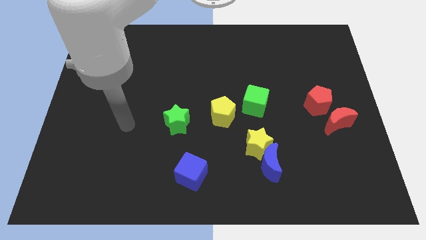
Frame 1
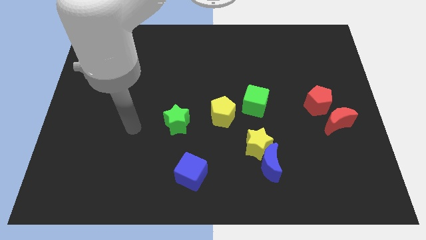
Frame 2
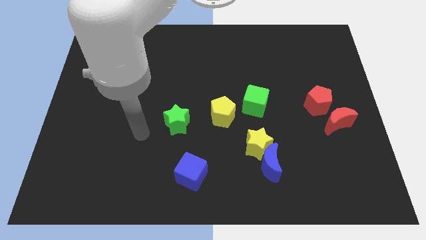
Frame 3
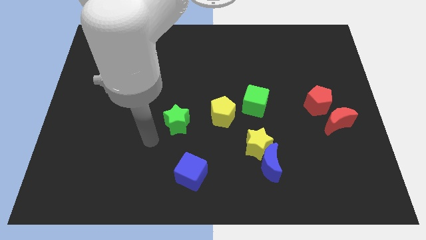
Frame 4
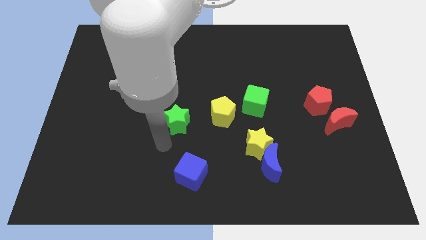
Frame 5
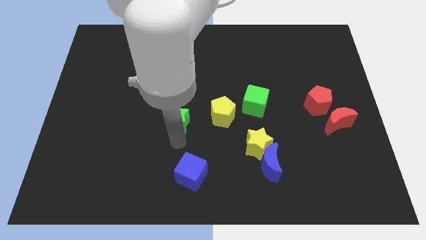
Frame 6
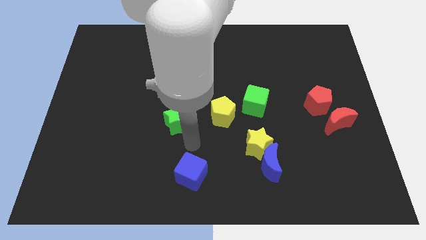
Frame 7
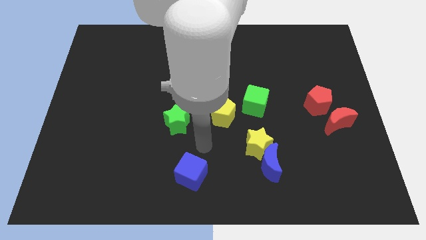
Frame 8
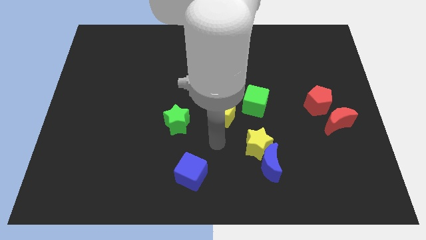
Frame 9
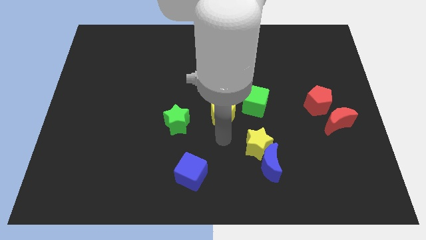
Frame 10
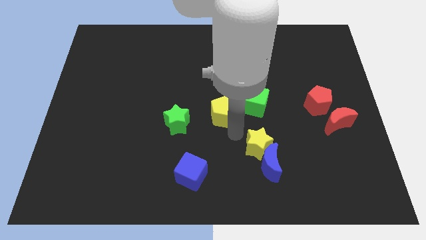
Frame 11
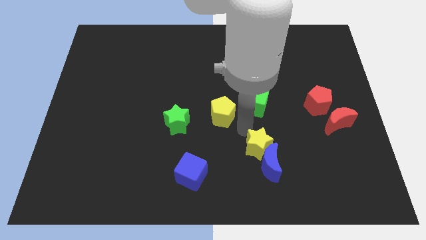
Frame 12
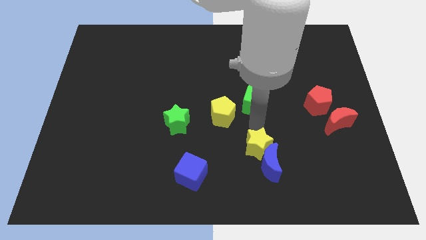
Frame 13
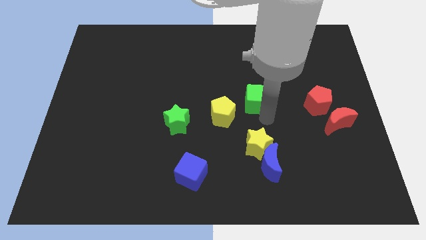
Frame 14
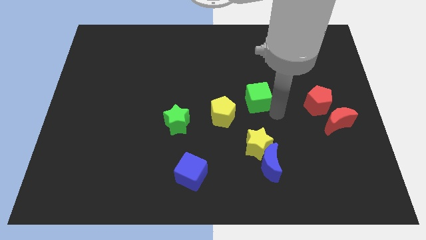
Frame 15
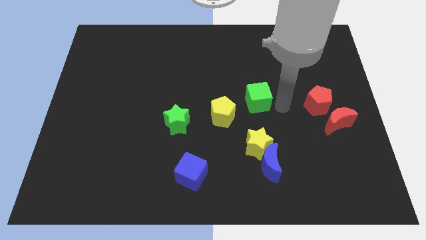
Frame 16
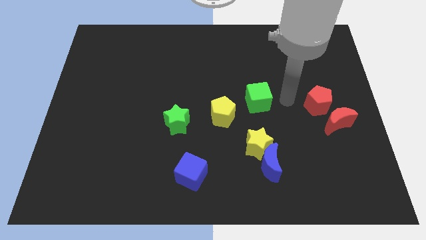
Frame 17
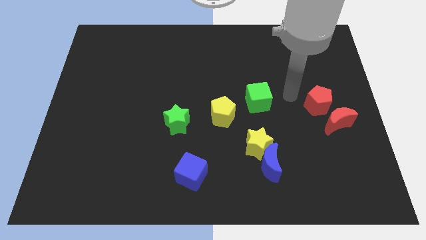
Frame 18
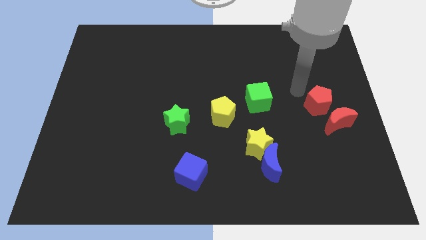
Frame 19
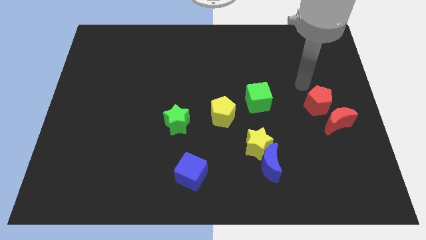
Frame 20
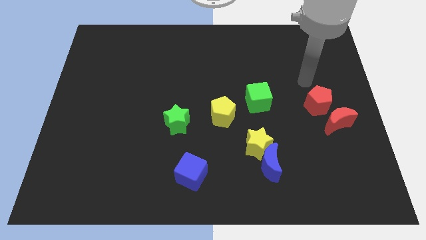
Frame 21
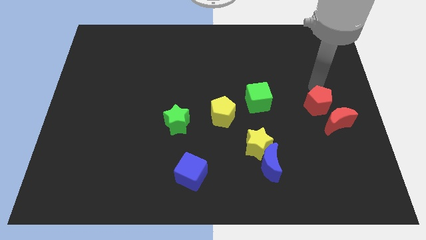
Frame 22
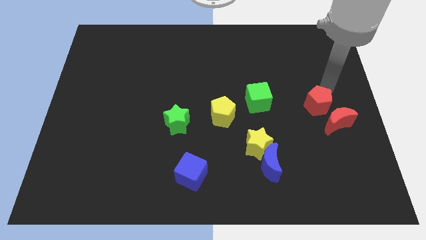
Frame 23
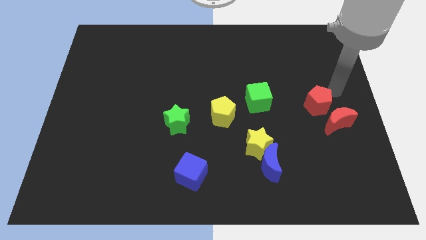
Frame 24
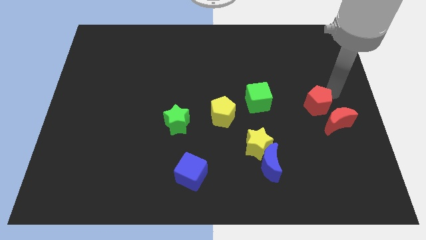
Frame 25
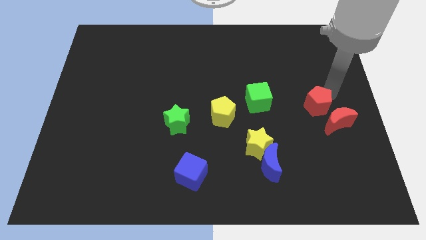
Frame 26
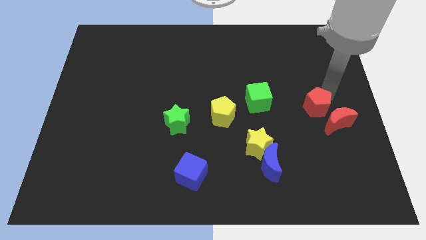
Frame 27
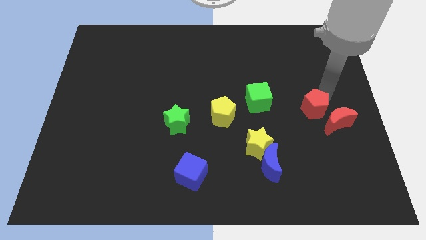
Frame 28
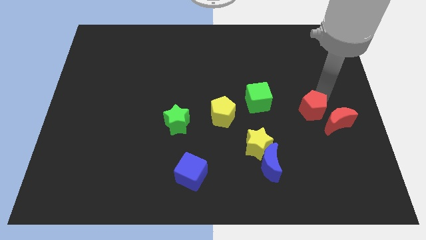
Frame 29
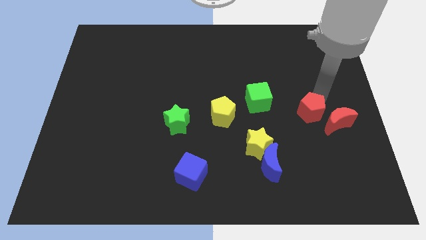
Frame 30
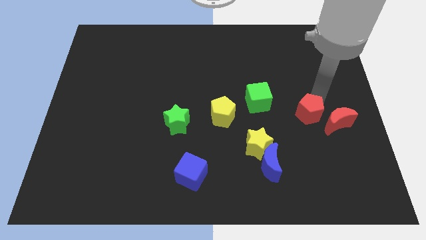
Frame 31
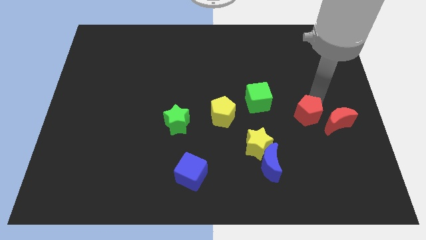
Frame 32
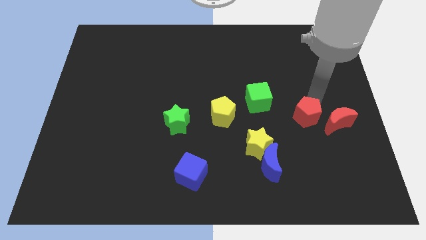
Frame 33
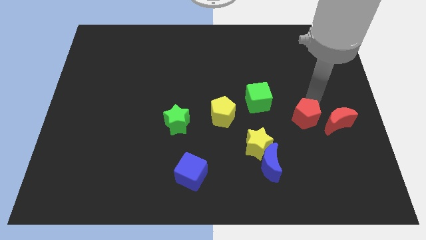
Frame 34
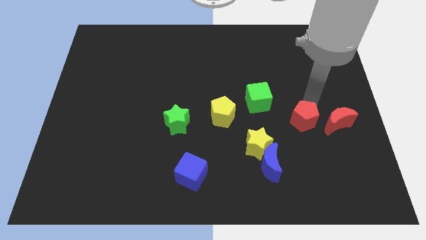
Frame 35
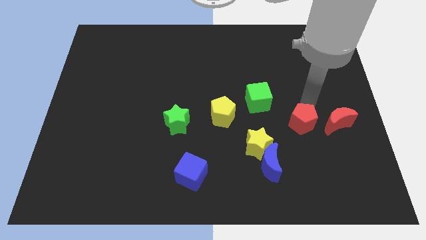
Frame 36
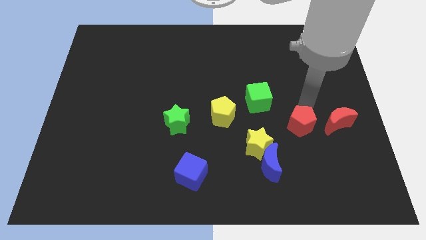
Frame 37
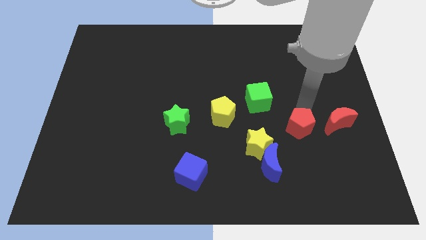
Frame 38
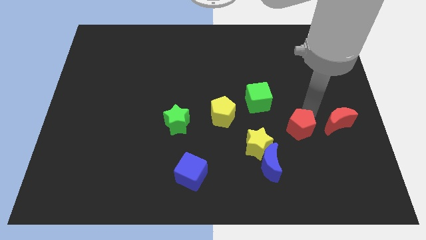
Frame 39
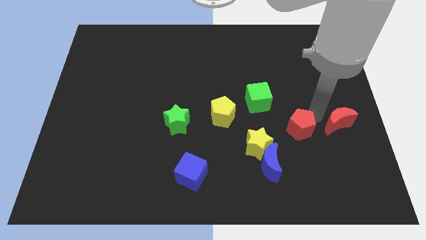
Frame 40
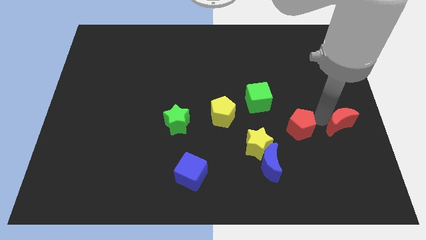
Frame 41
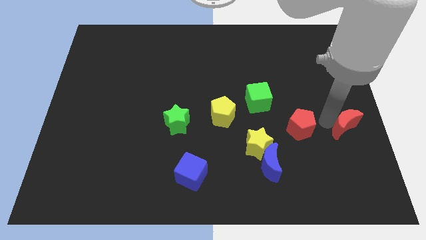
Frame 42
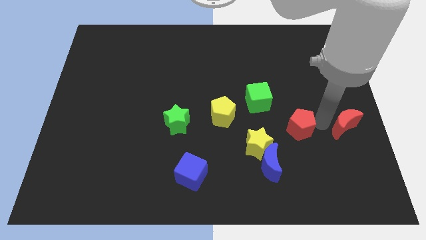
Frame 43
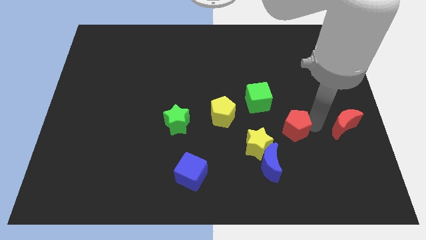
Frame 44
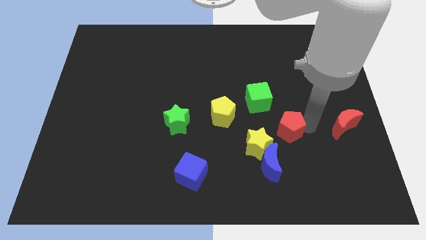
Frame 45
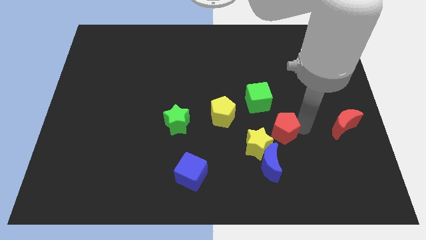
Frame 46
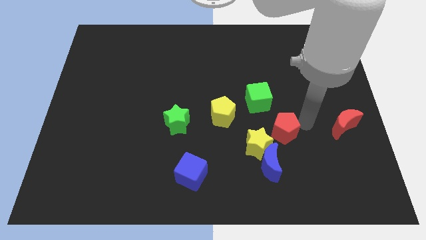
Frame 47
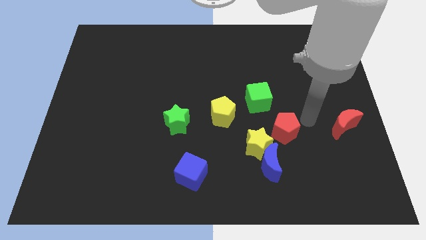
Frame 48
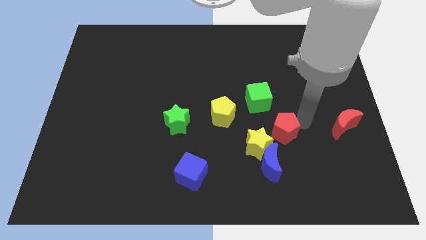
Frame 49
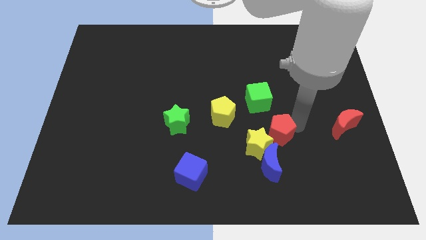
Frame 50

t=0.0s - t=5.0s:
slide the red pentagon towards the yellow star

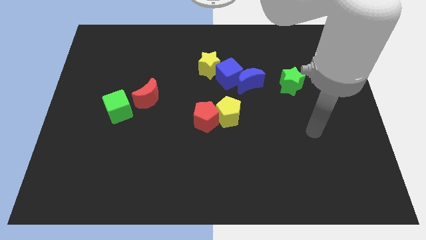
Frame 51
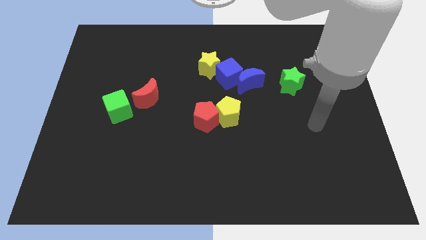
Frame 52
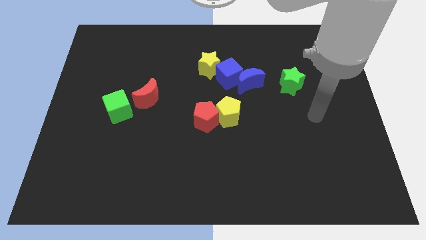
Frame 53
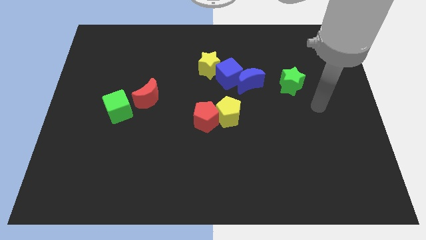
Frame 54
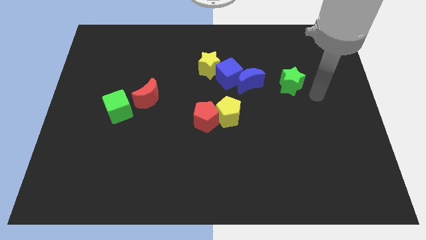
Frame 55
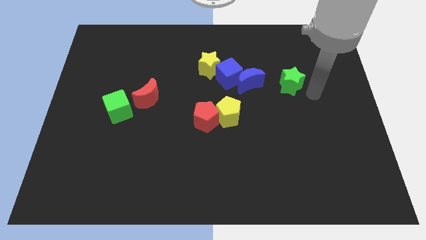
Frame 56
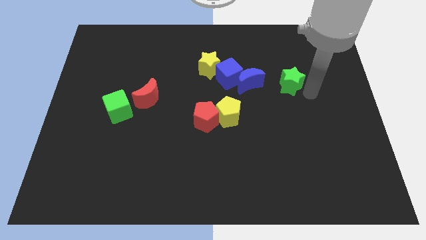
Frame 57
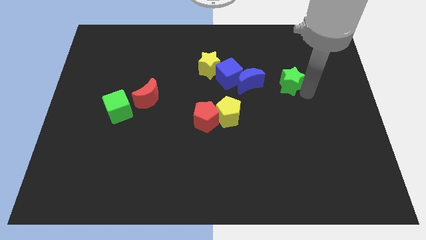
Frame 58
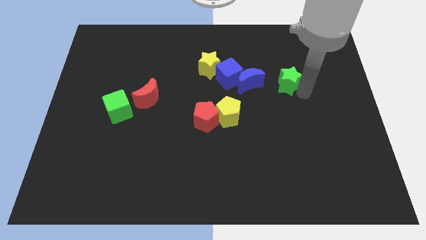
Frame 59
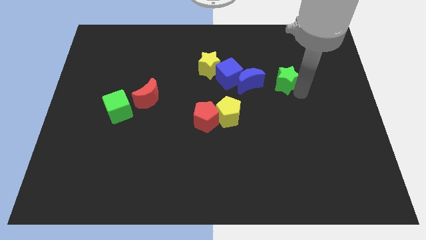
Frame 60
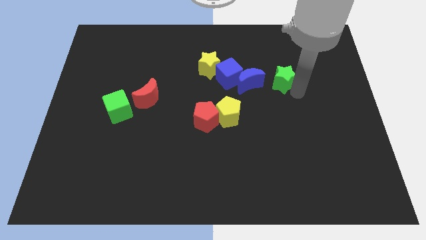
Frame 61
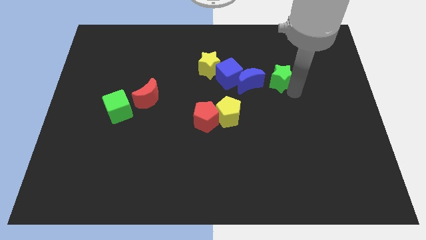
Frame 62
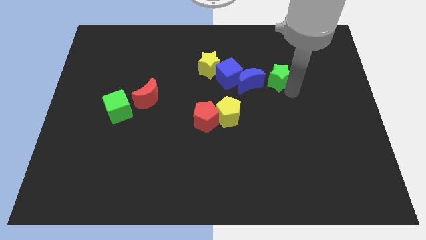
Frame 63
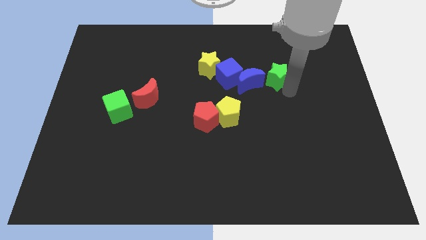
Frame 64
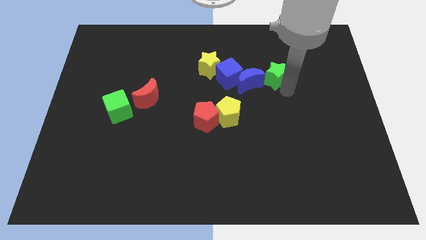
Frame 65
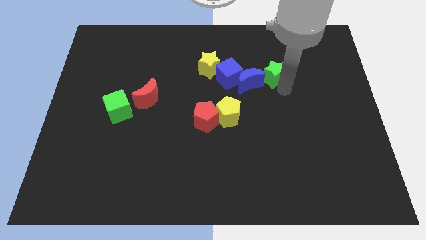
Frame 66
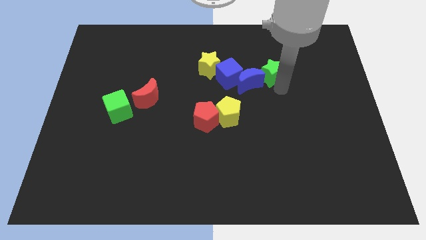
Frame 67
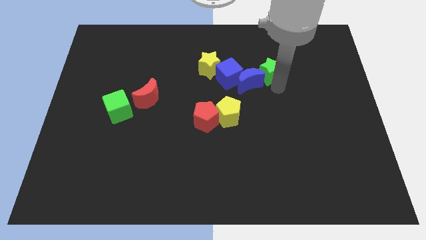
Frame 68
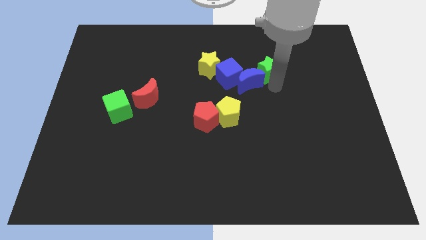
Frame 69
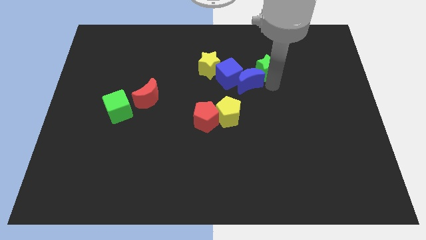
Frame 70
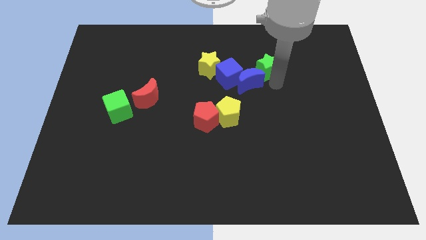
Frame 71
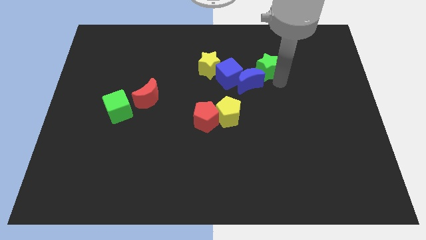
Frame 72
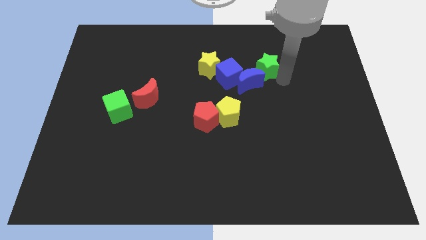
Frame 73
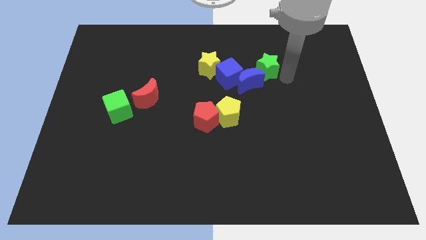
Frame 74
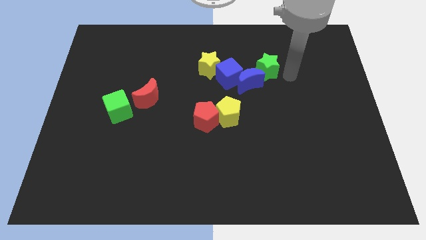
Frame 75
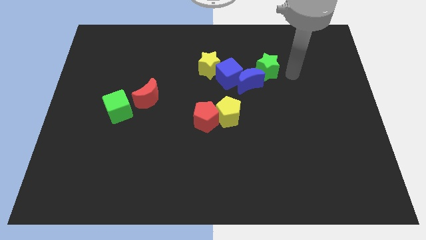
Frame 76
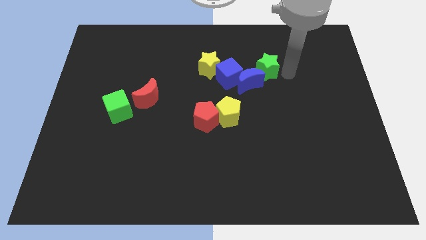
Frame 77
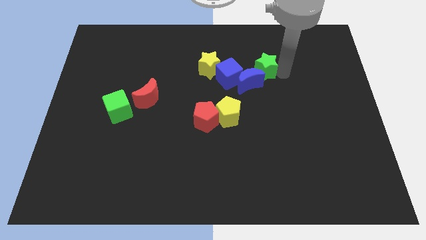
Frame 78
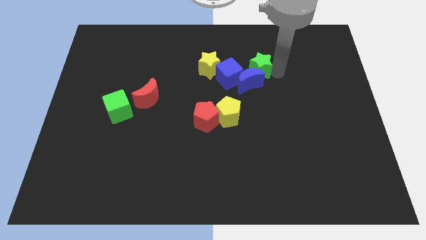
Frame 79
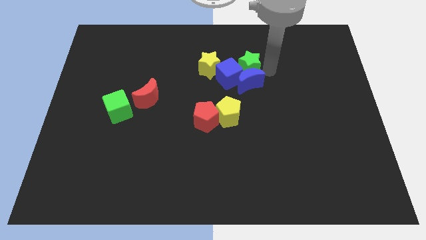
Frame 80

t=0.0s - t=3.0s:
put the green star close to the blue cube
